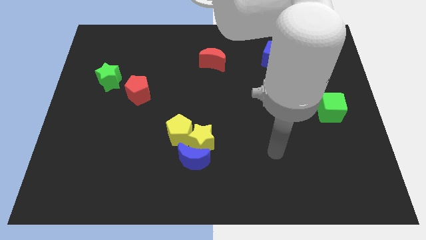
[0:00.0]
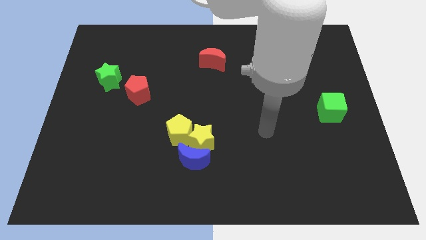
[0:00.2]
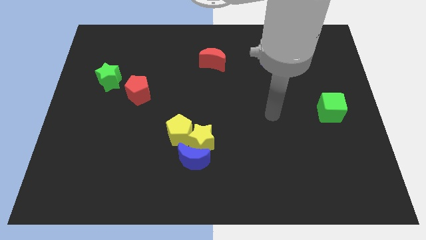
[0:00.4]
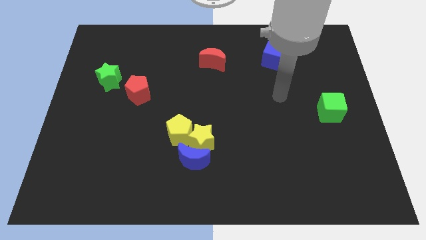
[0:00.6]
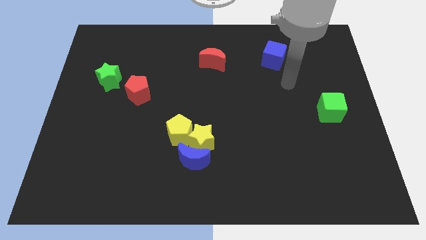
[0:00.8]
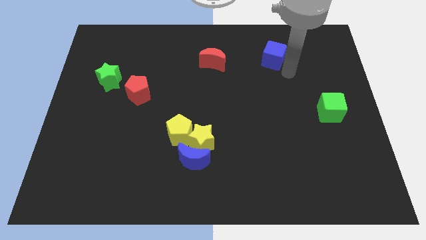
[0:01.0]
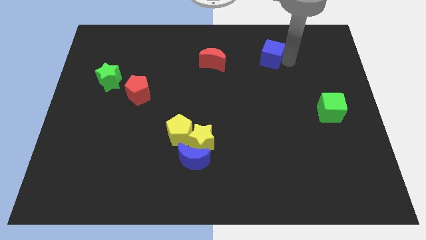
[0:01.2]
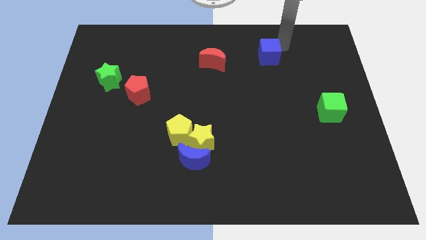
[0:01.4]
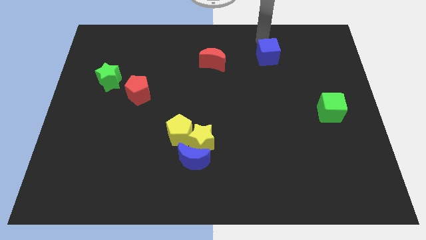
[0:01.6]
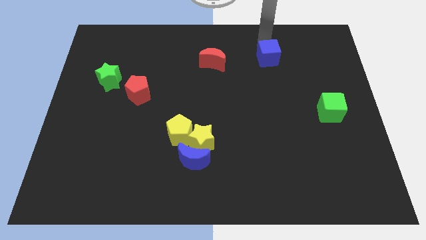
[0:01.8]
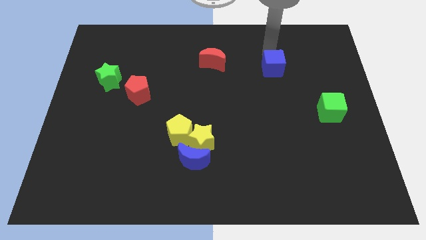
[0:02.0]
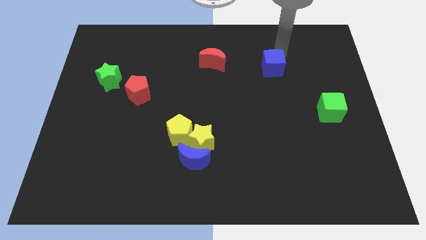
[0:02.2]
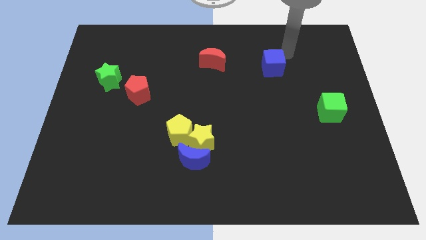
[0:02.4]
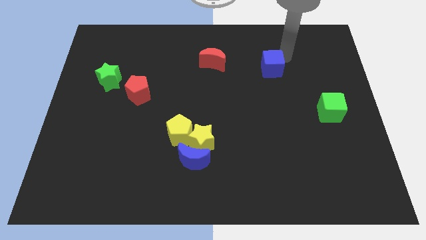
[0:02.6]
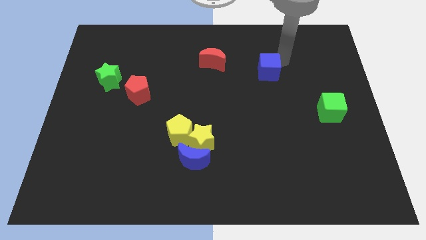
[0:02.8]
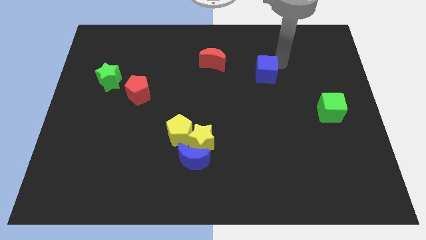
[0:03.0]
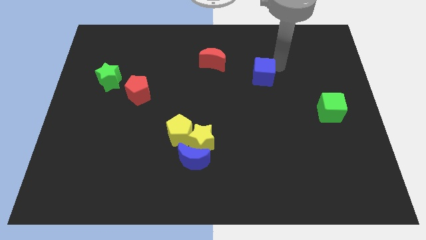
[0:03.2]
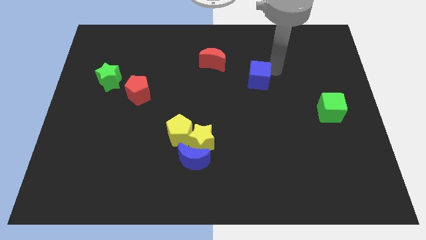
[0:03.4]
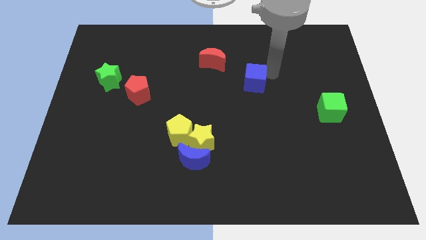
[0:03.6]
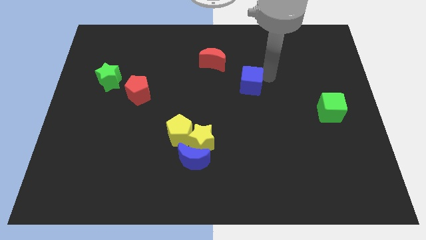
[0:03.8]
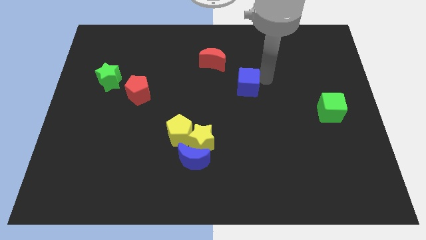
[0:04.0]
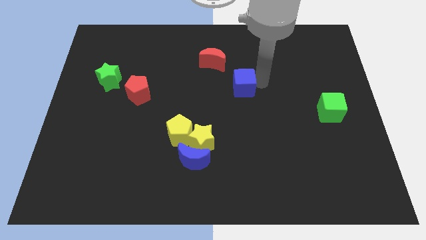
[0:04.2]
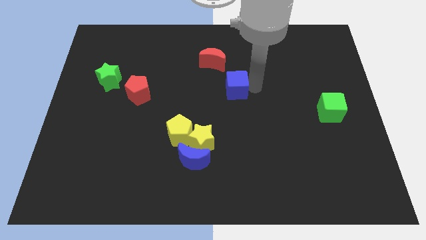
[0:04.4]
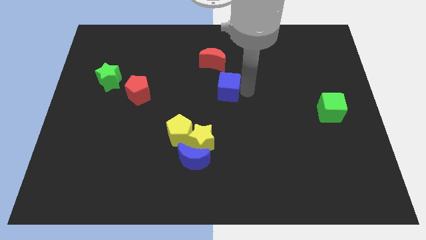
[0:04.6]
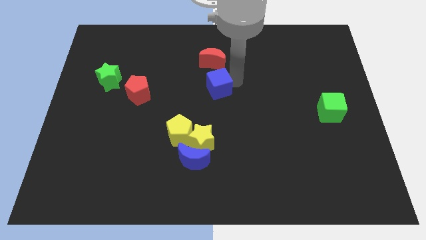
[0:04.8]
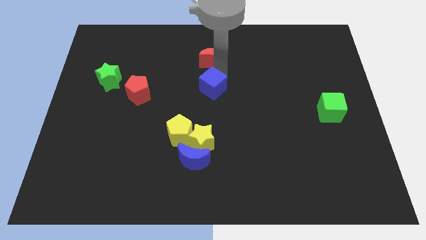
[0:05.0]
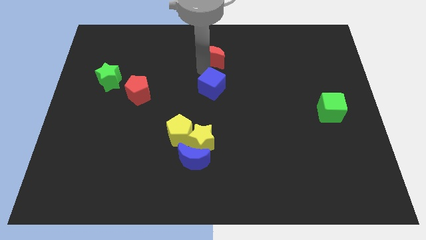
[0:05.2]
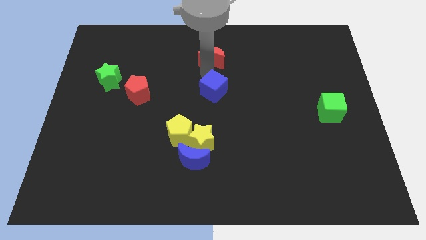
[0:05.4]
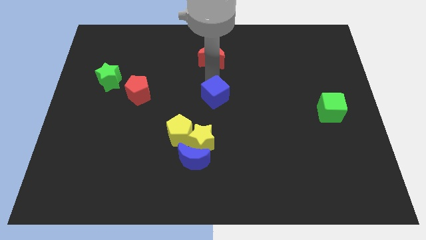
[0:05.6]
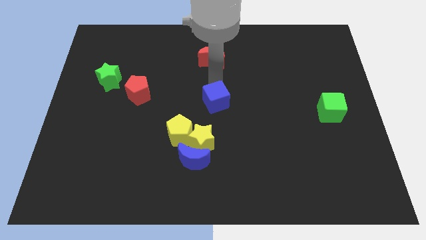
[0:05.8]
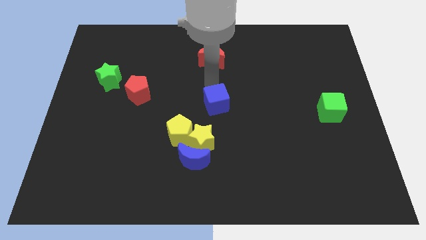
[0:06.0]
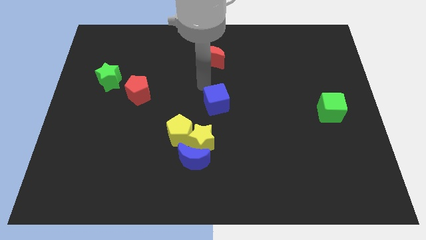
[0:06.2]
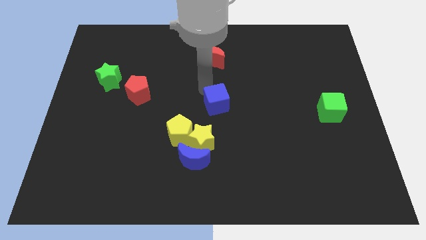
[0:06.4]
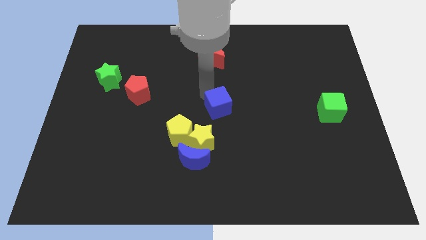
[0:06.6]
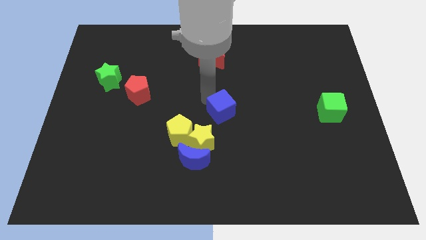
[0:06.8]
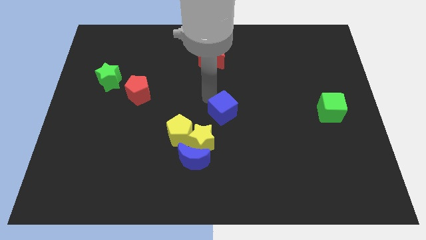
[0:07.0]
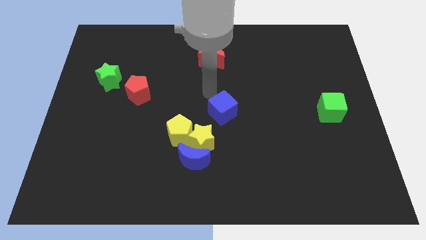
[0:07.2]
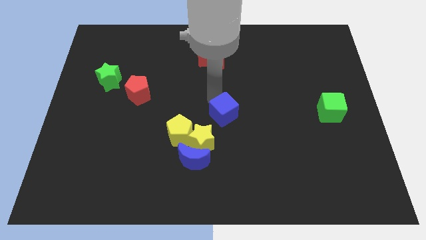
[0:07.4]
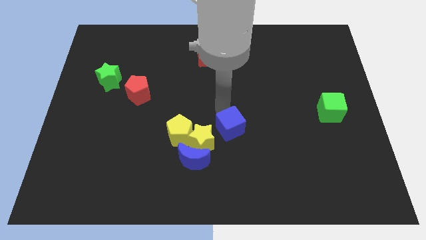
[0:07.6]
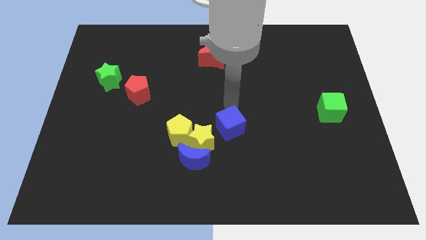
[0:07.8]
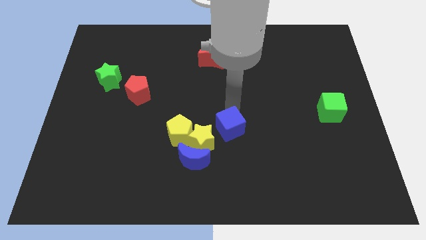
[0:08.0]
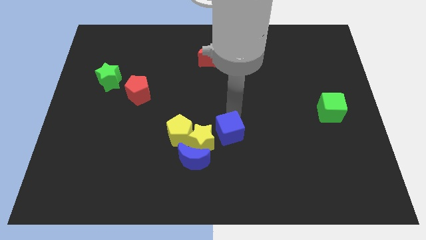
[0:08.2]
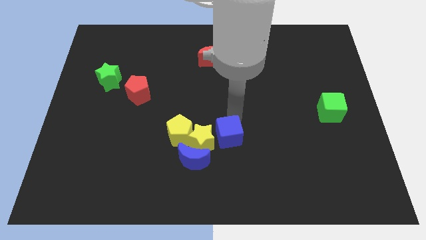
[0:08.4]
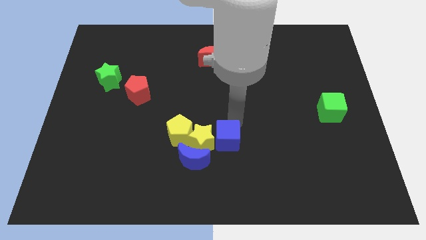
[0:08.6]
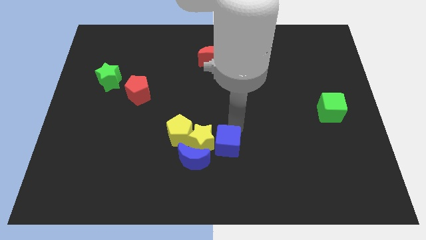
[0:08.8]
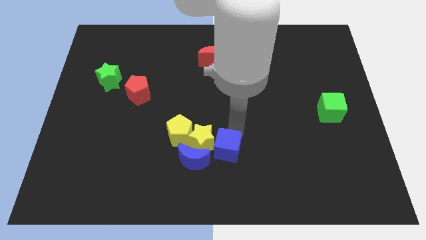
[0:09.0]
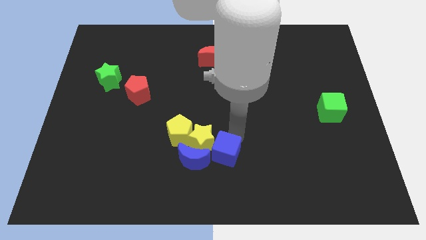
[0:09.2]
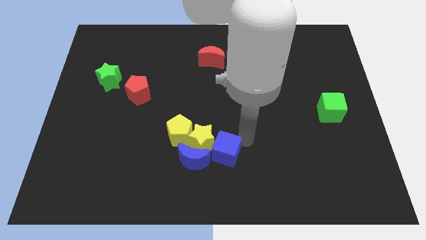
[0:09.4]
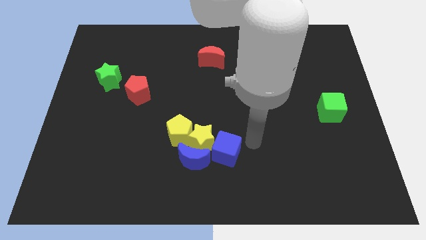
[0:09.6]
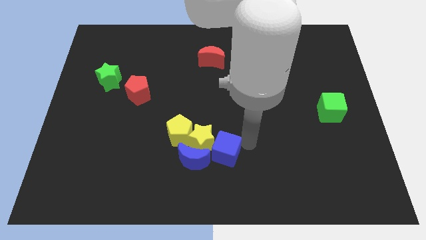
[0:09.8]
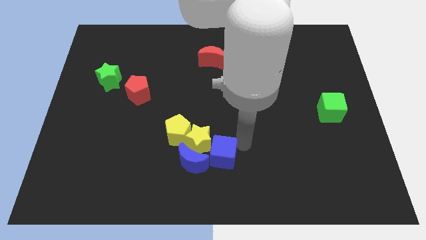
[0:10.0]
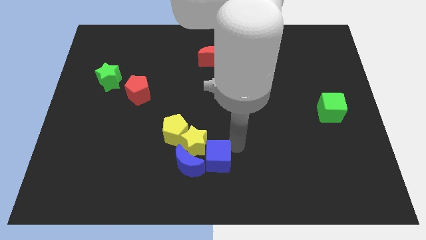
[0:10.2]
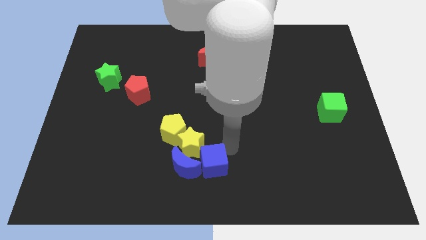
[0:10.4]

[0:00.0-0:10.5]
push the blue cube close to the blue moon
